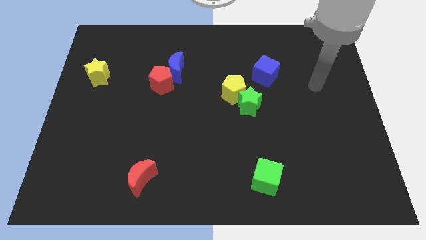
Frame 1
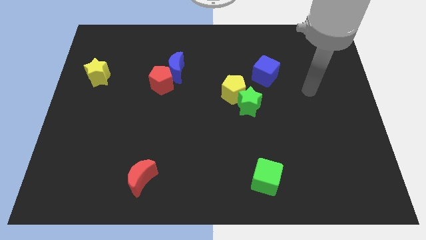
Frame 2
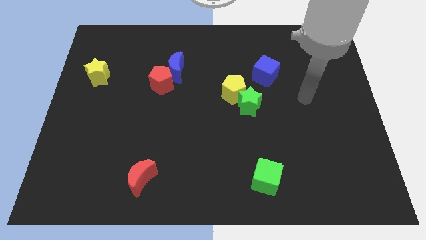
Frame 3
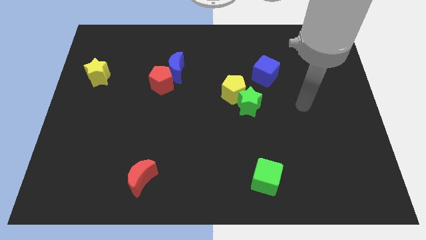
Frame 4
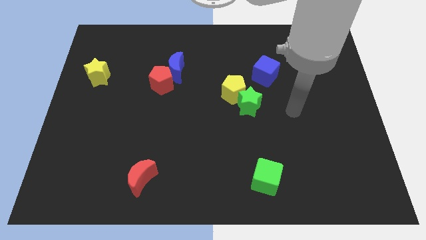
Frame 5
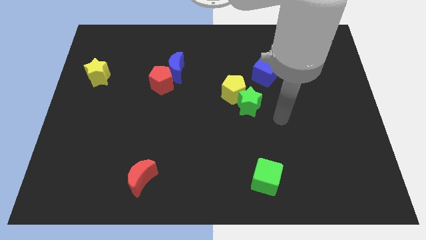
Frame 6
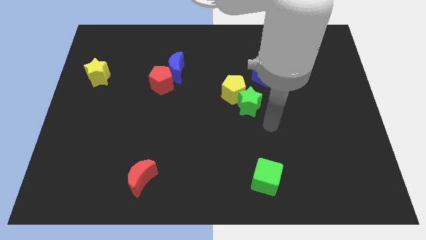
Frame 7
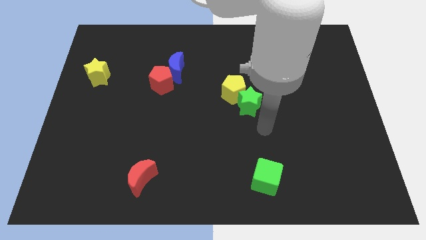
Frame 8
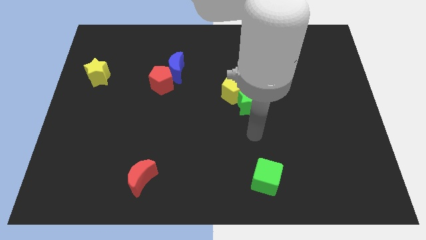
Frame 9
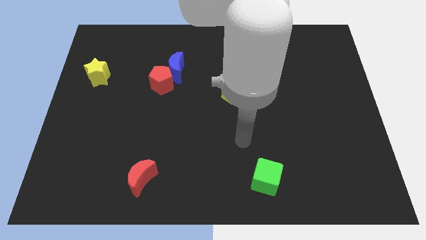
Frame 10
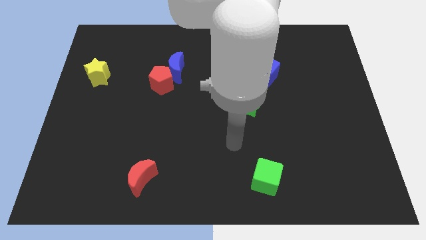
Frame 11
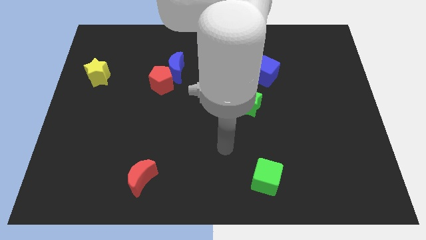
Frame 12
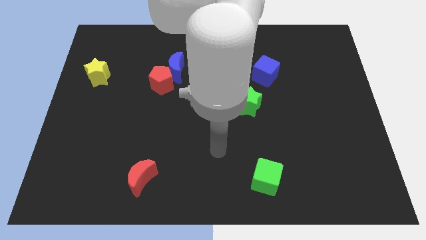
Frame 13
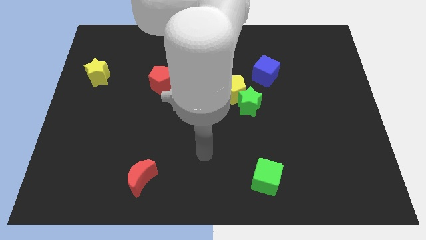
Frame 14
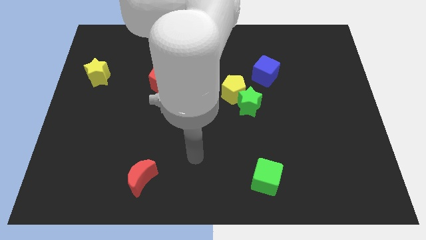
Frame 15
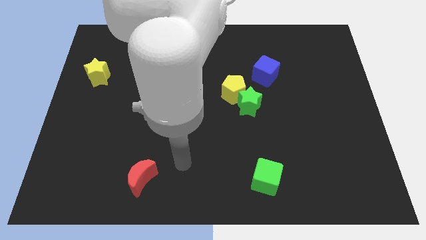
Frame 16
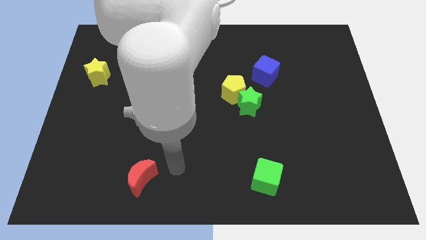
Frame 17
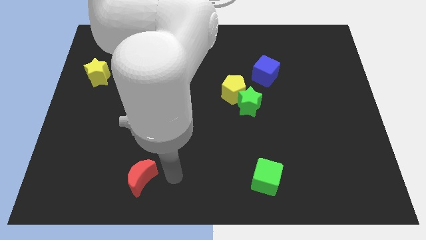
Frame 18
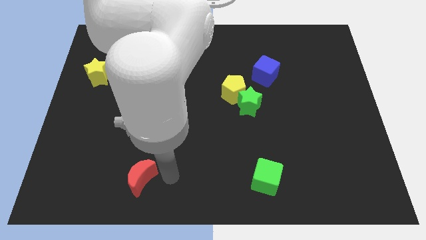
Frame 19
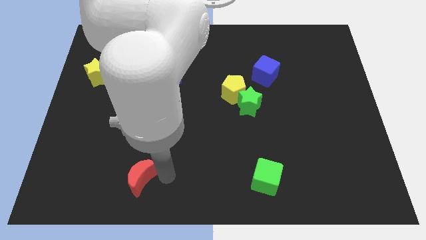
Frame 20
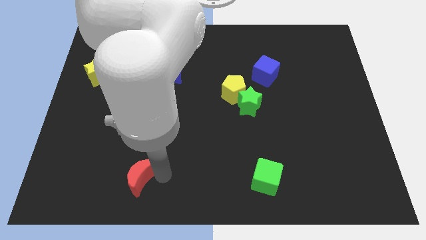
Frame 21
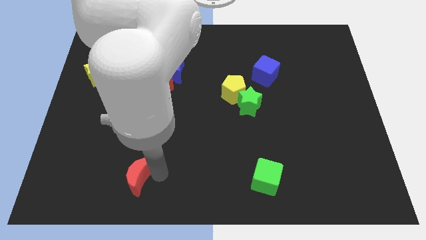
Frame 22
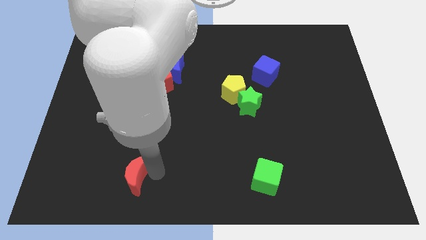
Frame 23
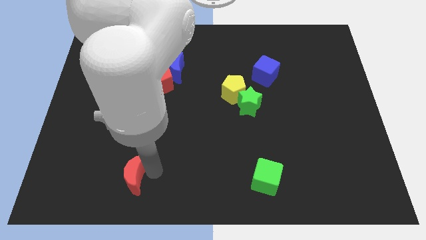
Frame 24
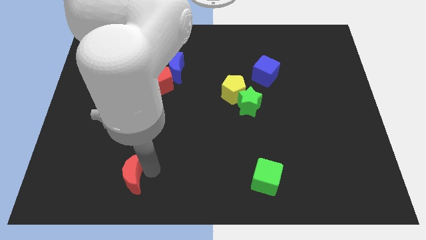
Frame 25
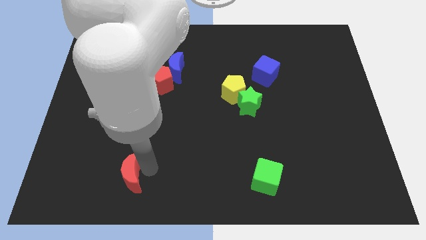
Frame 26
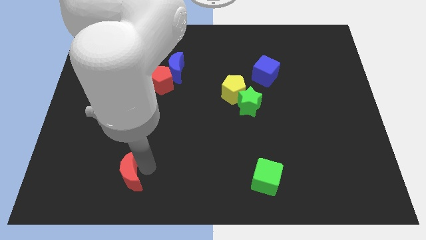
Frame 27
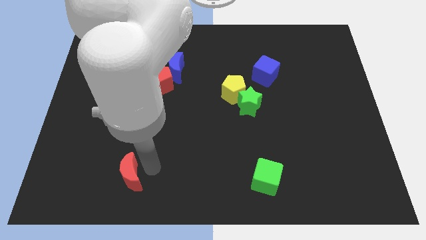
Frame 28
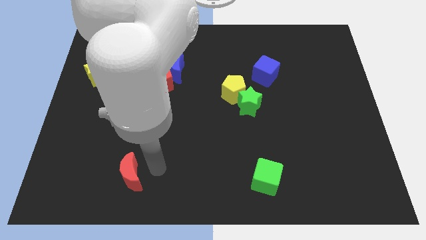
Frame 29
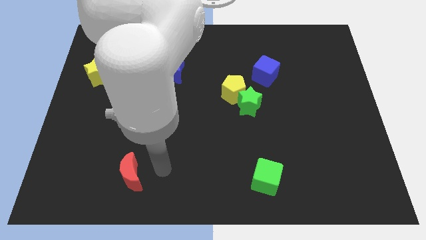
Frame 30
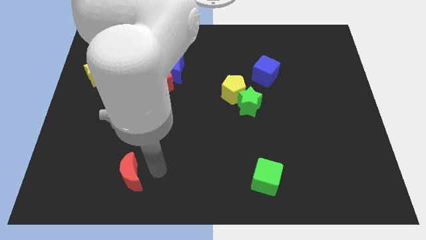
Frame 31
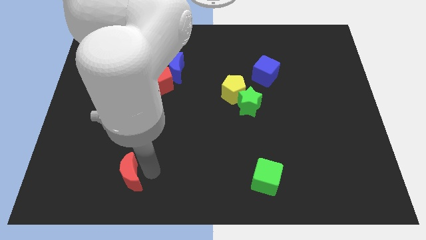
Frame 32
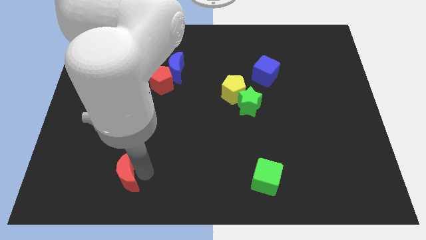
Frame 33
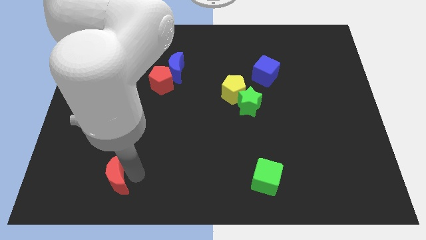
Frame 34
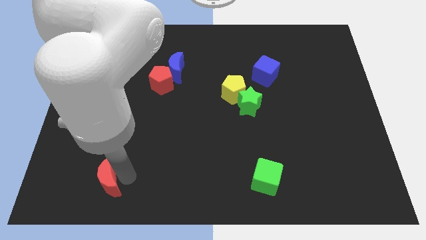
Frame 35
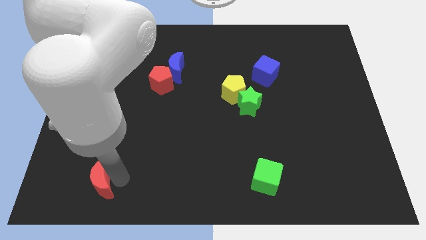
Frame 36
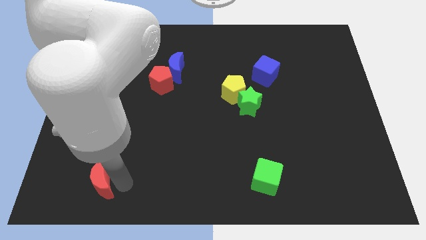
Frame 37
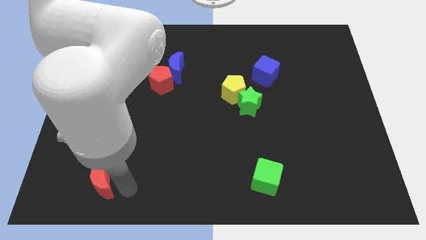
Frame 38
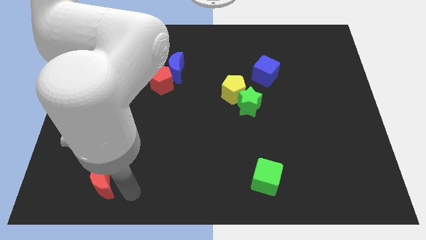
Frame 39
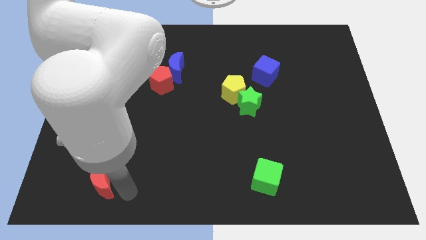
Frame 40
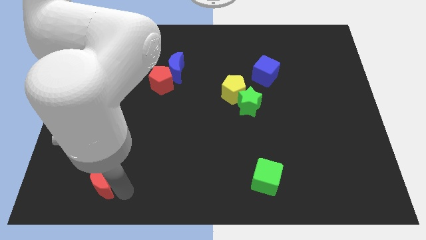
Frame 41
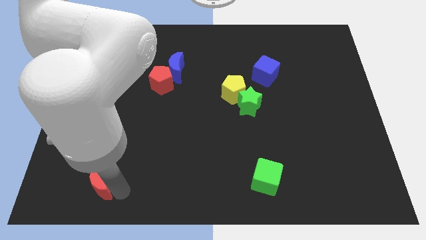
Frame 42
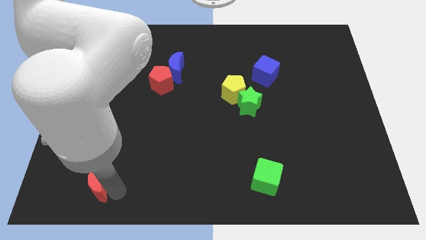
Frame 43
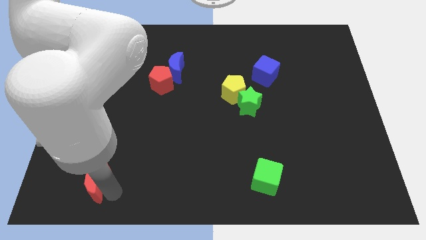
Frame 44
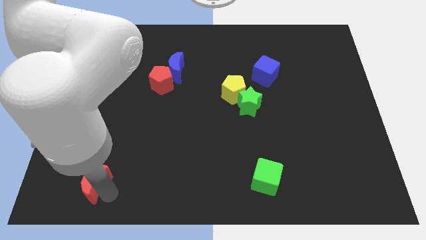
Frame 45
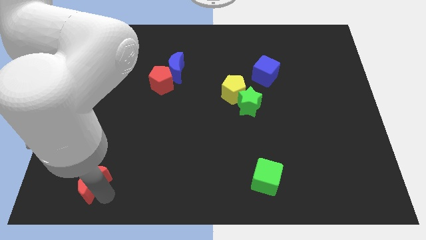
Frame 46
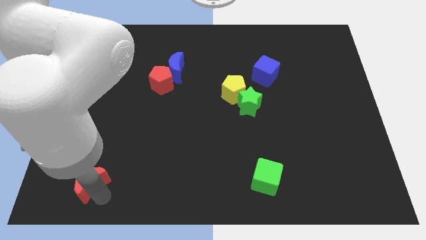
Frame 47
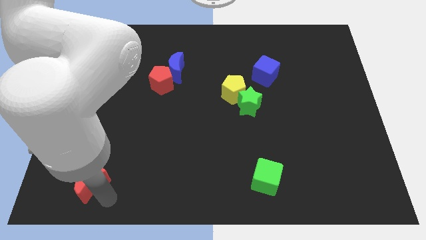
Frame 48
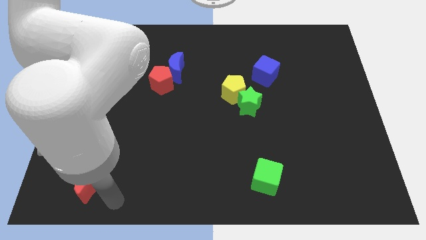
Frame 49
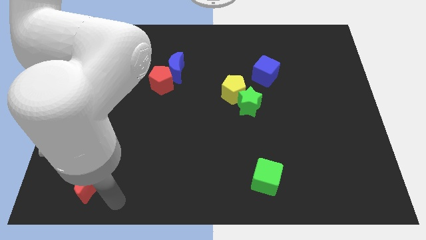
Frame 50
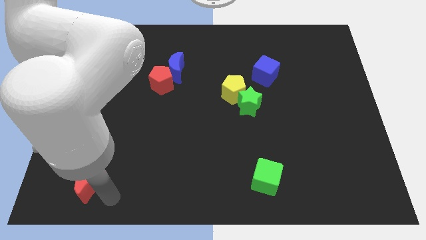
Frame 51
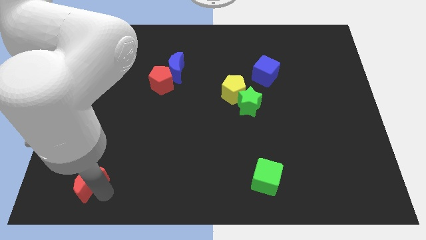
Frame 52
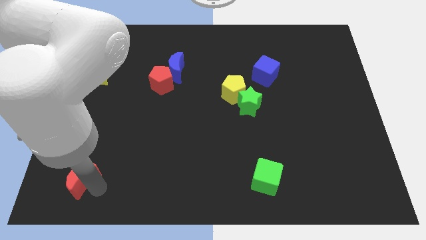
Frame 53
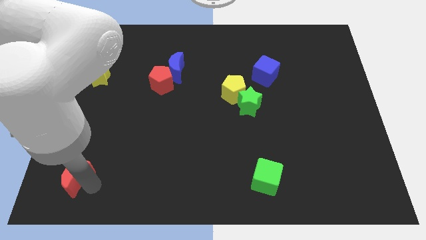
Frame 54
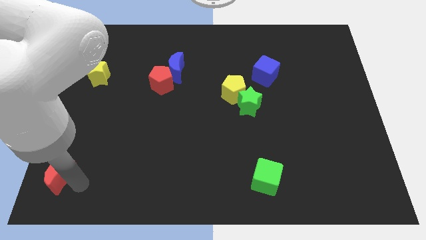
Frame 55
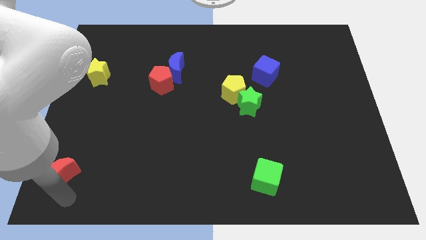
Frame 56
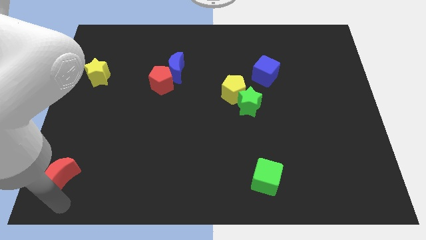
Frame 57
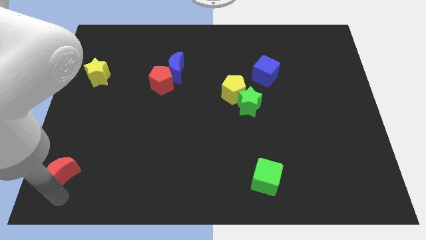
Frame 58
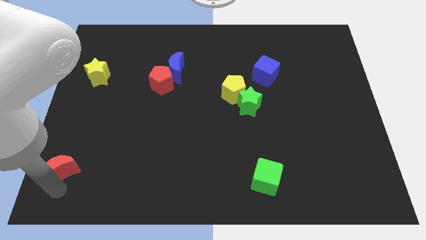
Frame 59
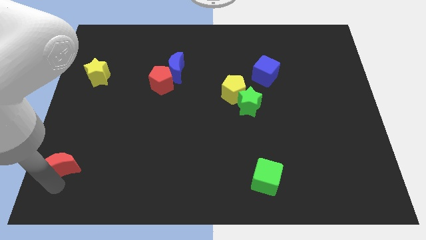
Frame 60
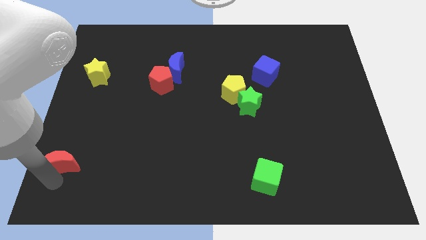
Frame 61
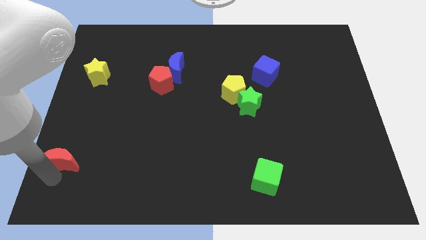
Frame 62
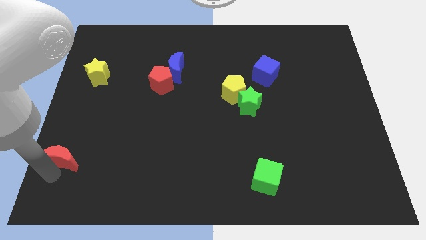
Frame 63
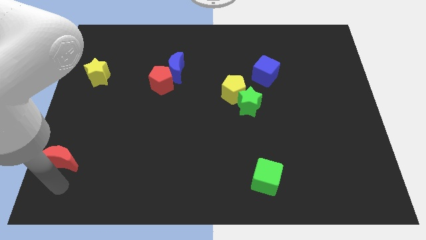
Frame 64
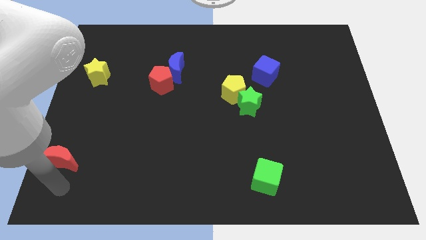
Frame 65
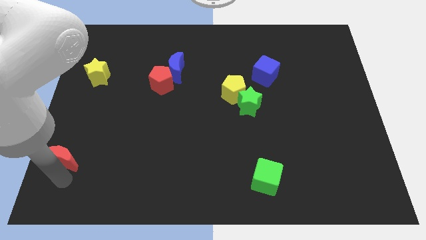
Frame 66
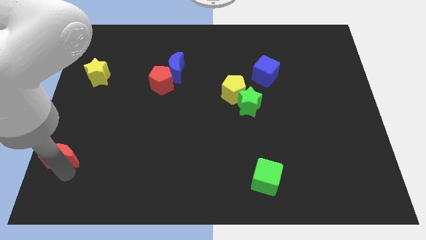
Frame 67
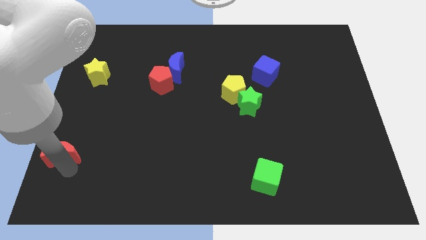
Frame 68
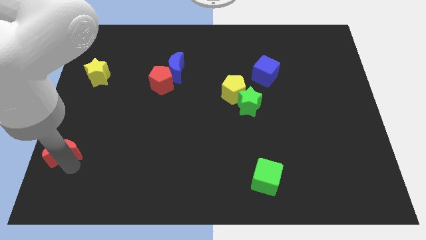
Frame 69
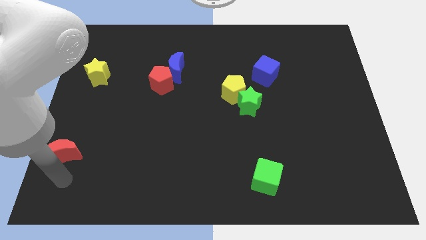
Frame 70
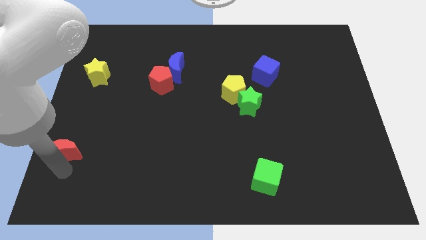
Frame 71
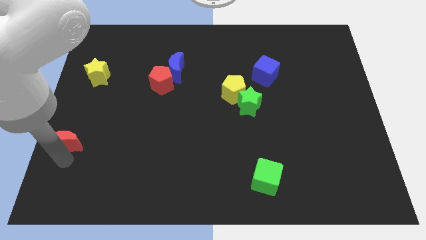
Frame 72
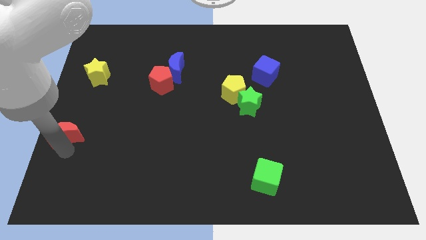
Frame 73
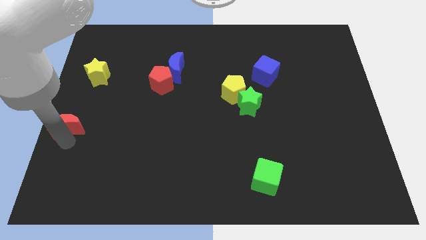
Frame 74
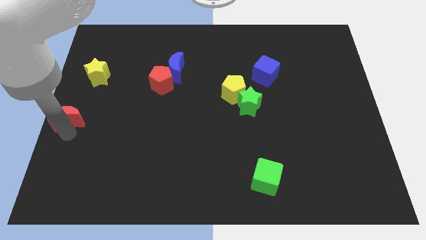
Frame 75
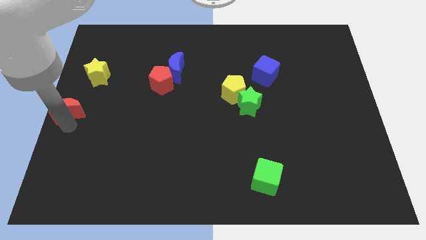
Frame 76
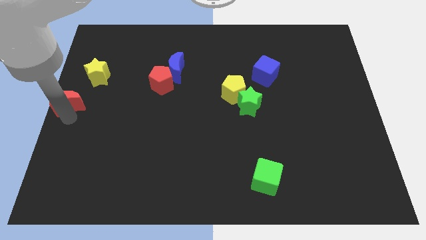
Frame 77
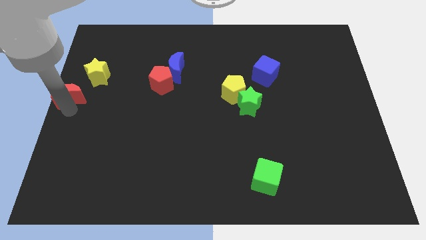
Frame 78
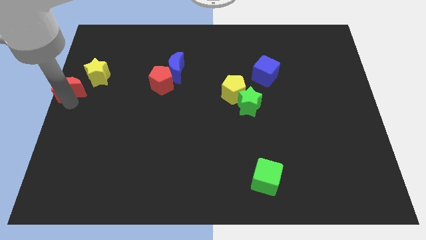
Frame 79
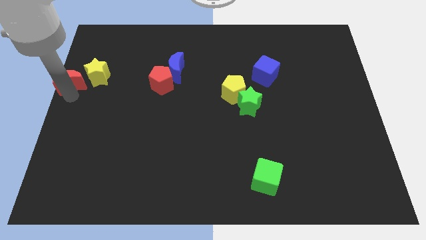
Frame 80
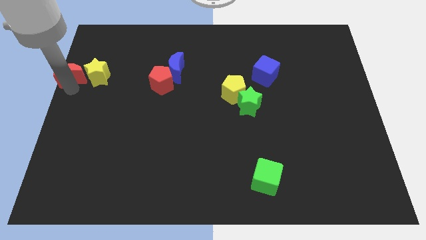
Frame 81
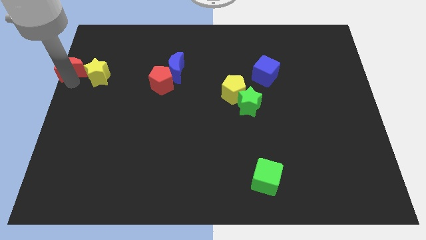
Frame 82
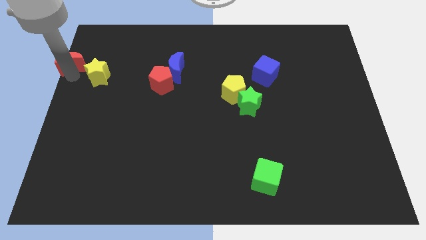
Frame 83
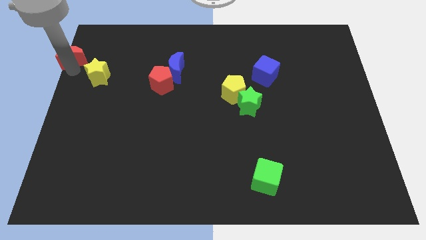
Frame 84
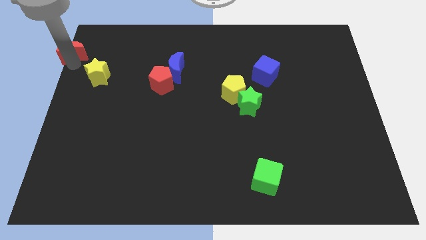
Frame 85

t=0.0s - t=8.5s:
move the red moon to the top left
